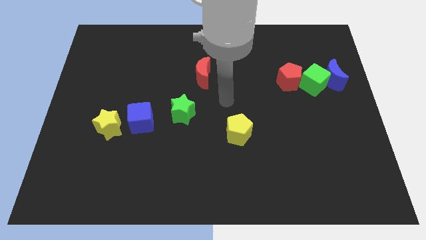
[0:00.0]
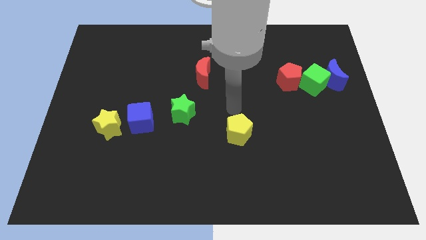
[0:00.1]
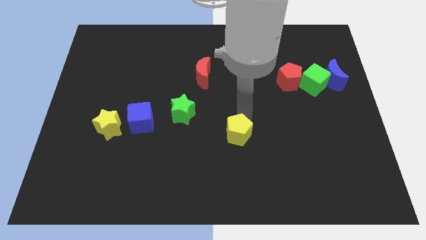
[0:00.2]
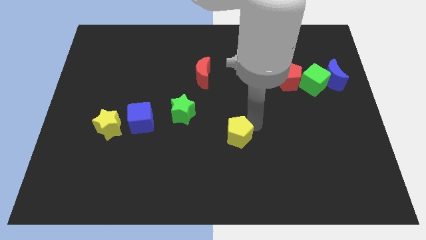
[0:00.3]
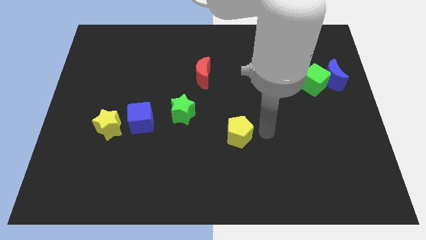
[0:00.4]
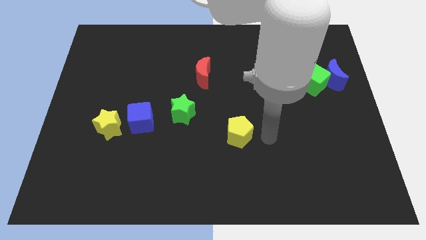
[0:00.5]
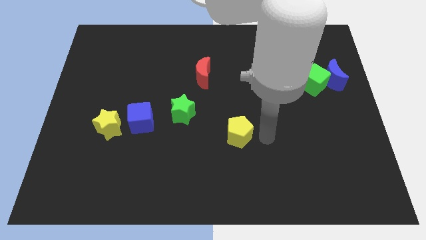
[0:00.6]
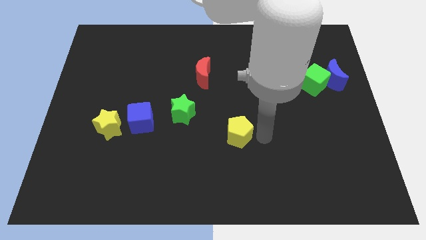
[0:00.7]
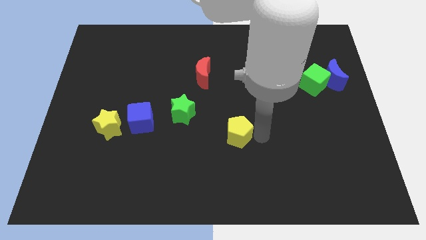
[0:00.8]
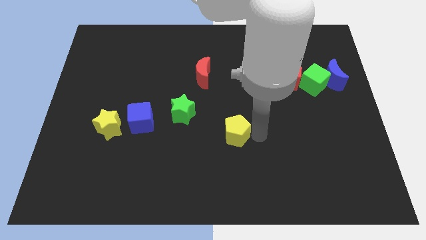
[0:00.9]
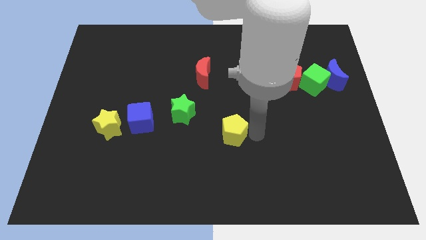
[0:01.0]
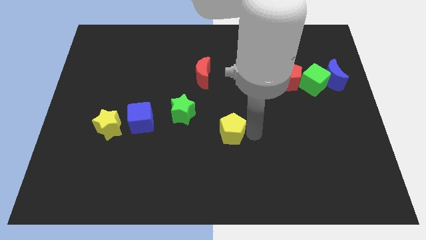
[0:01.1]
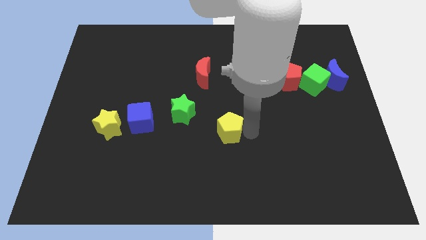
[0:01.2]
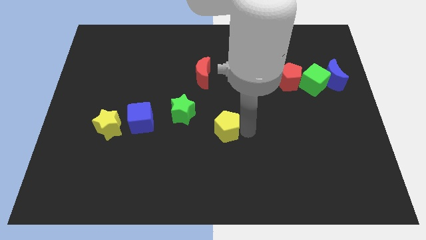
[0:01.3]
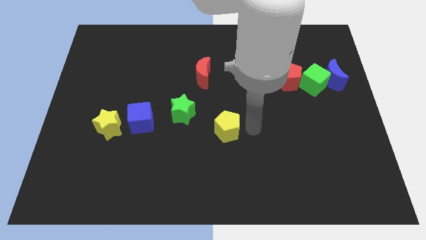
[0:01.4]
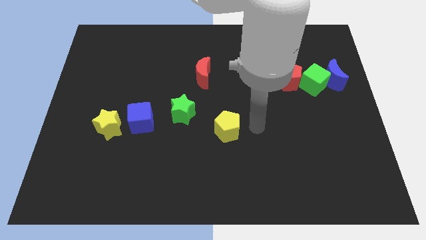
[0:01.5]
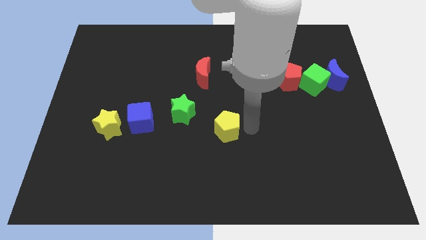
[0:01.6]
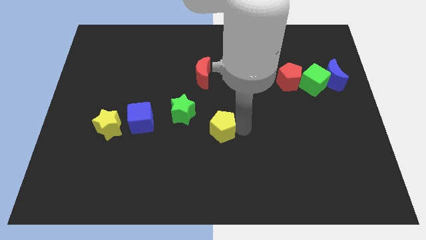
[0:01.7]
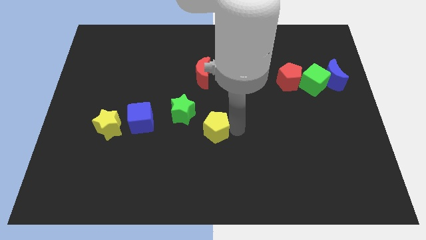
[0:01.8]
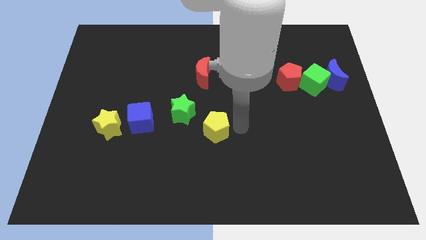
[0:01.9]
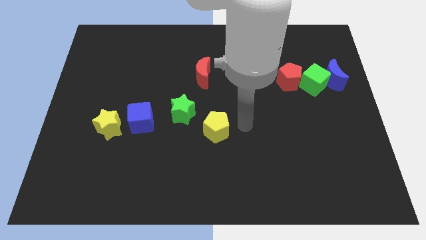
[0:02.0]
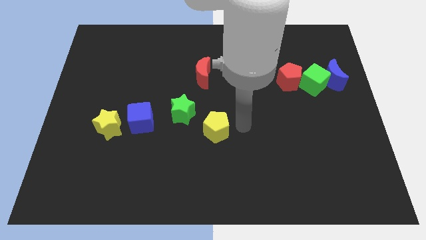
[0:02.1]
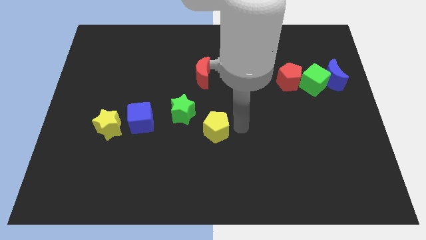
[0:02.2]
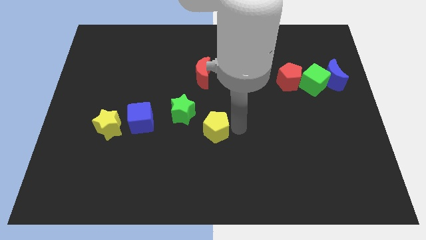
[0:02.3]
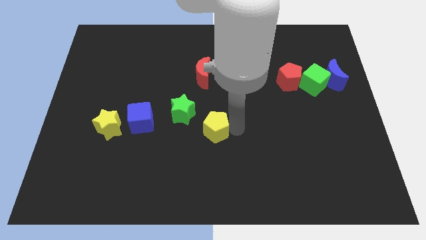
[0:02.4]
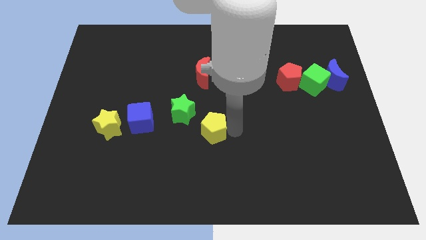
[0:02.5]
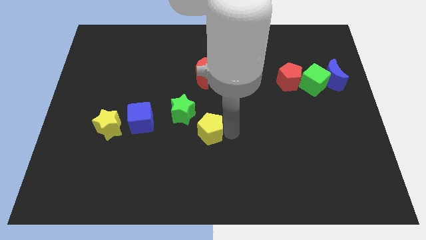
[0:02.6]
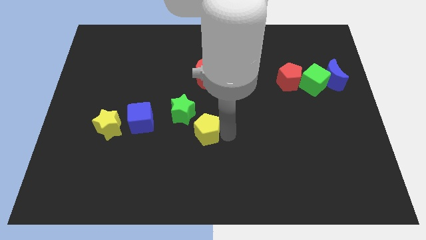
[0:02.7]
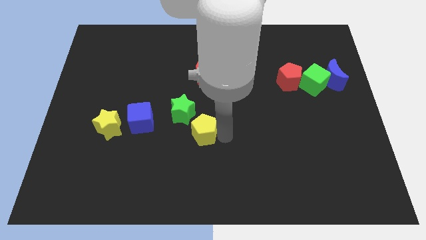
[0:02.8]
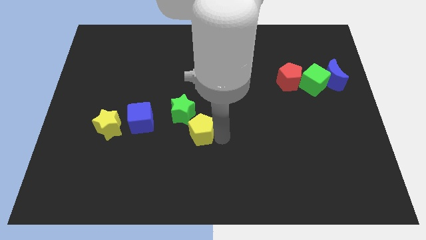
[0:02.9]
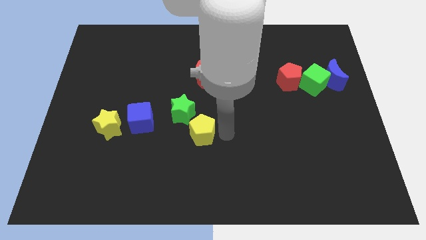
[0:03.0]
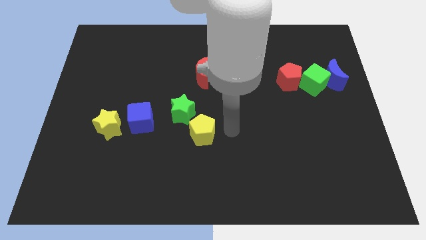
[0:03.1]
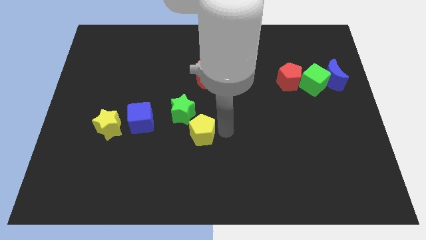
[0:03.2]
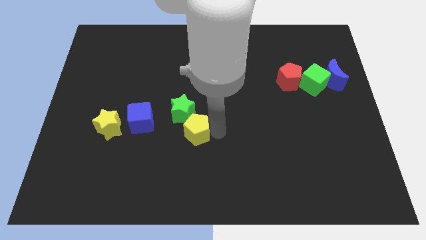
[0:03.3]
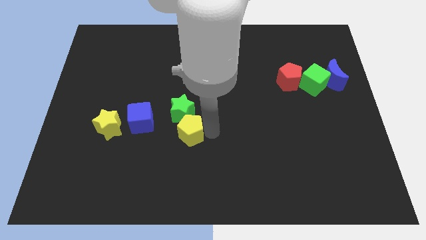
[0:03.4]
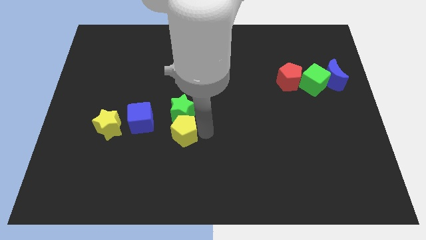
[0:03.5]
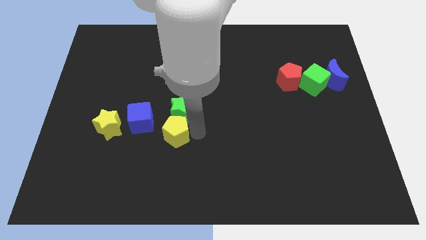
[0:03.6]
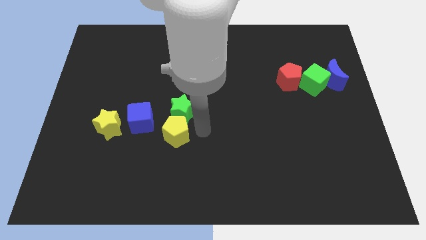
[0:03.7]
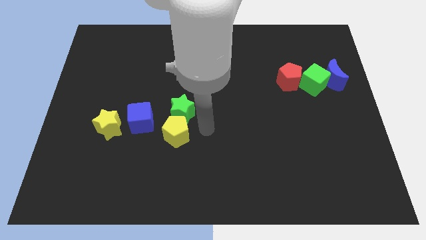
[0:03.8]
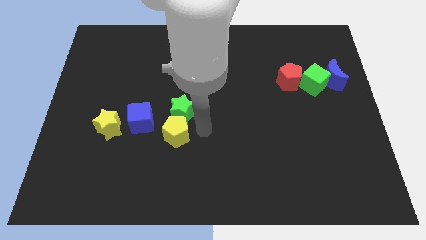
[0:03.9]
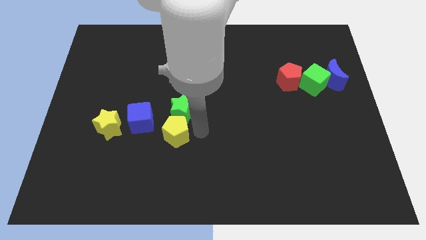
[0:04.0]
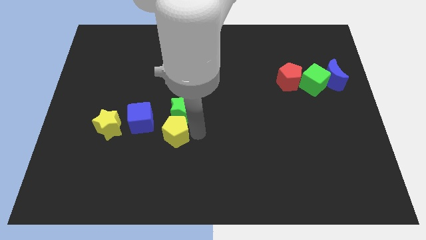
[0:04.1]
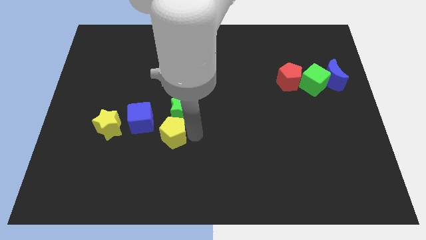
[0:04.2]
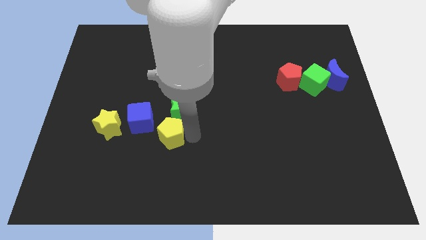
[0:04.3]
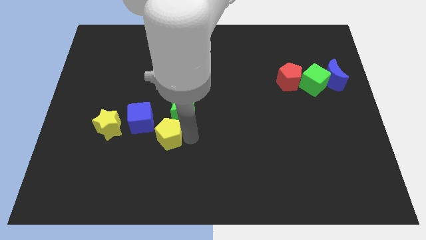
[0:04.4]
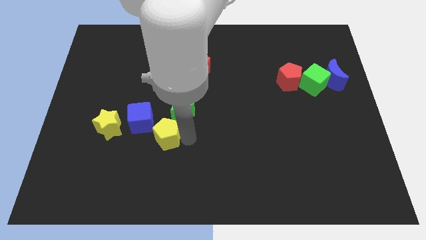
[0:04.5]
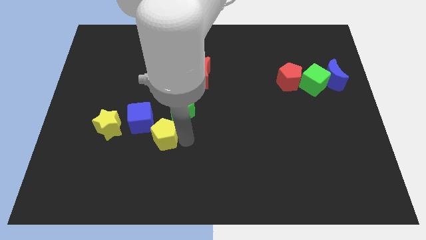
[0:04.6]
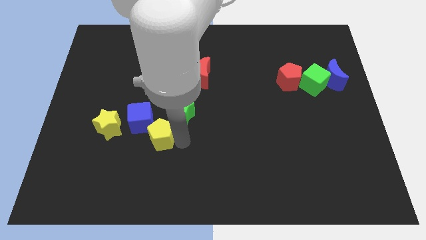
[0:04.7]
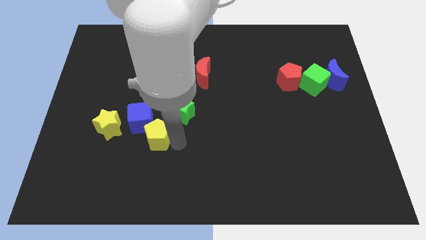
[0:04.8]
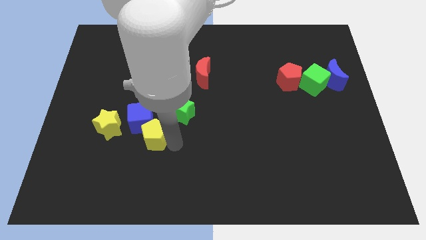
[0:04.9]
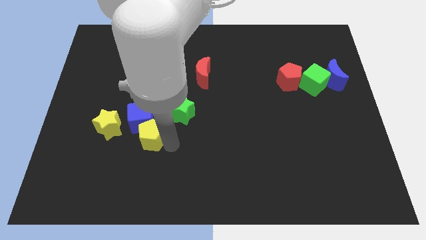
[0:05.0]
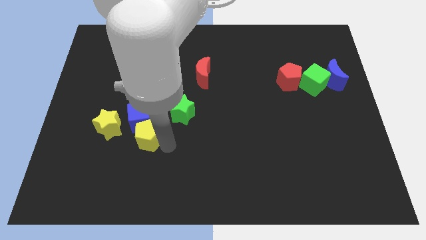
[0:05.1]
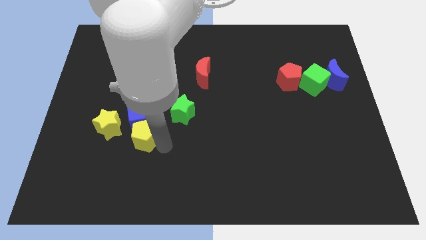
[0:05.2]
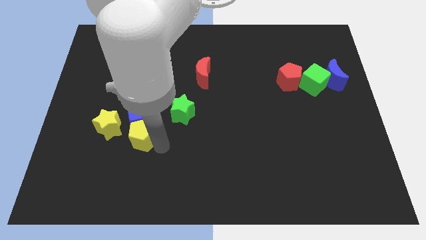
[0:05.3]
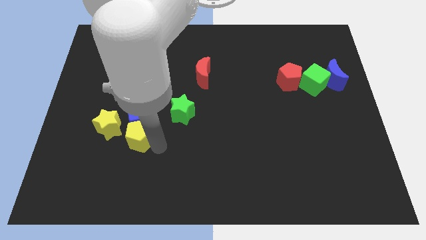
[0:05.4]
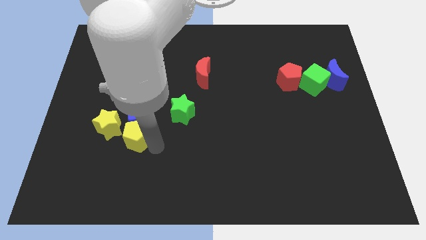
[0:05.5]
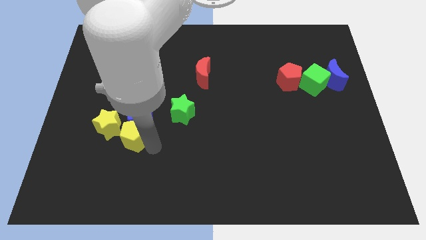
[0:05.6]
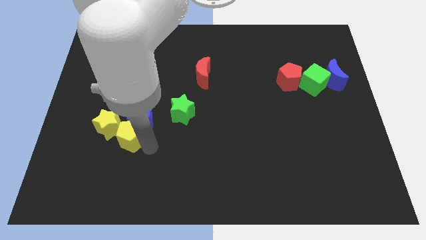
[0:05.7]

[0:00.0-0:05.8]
push the yellow pentagon to the yellow star

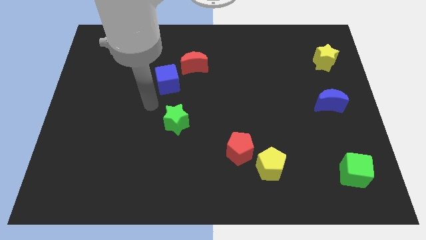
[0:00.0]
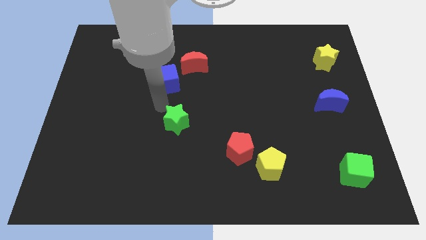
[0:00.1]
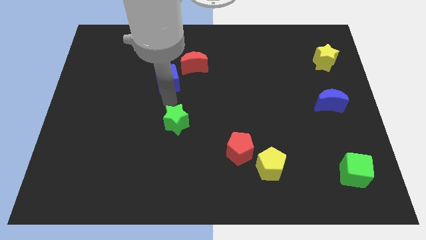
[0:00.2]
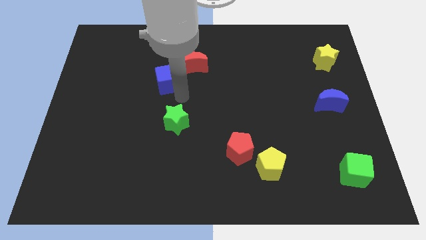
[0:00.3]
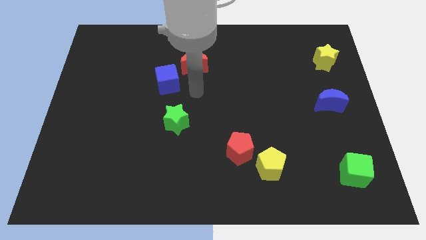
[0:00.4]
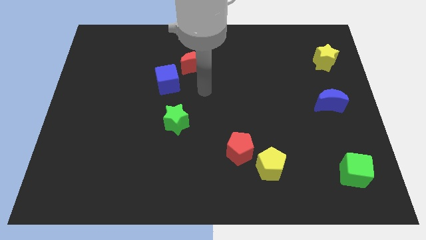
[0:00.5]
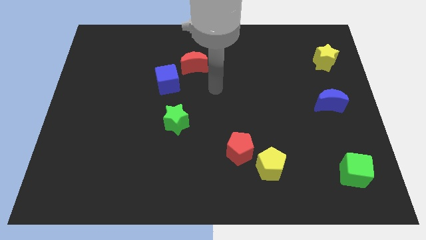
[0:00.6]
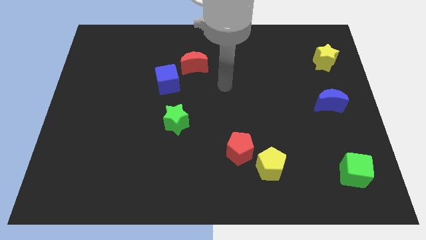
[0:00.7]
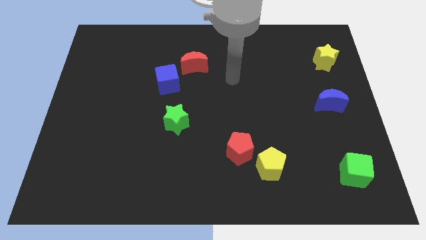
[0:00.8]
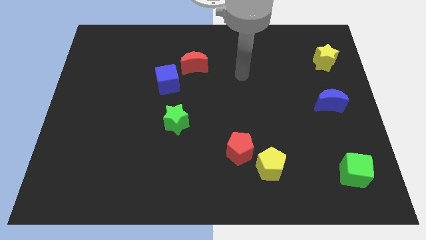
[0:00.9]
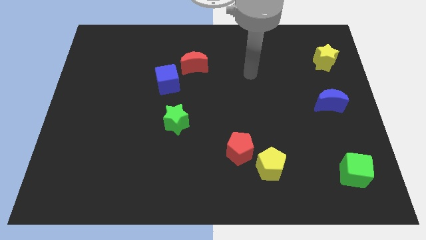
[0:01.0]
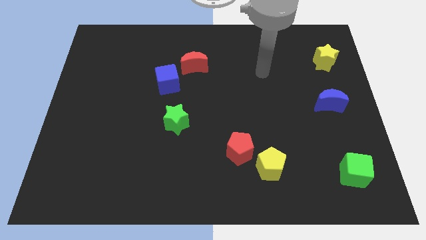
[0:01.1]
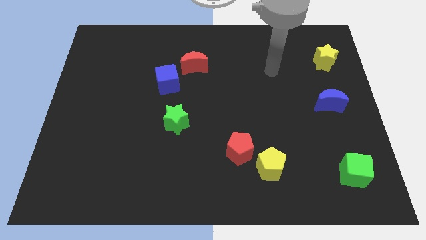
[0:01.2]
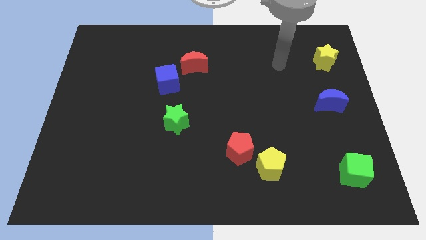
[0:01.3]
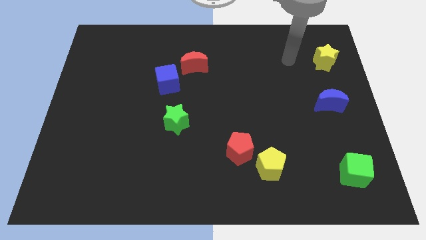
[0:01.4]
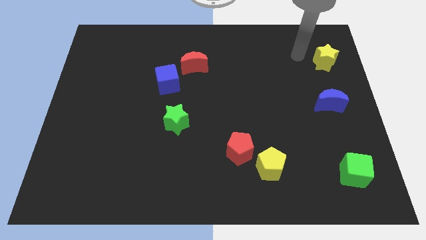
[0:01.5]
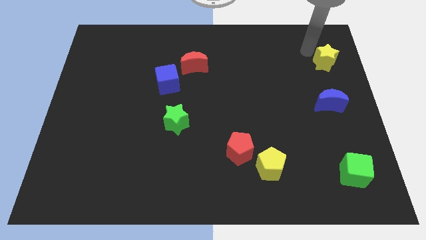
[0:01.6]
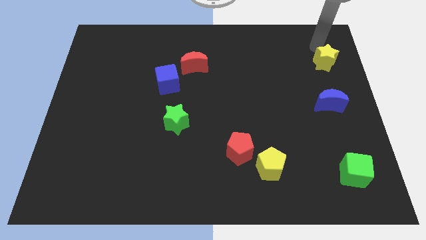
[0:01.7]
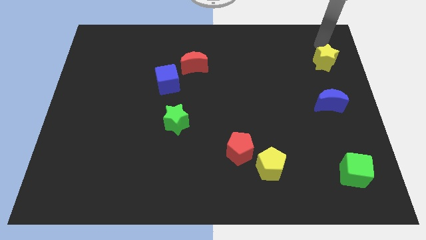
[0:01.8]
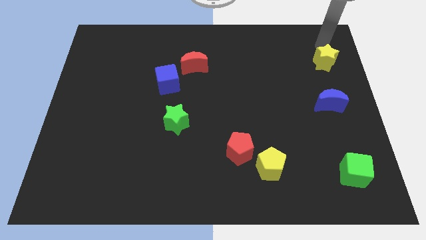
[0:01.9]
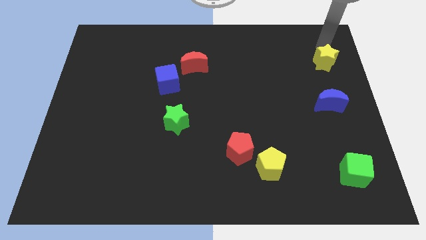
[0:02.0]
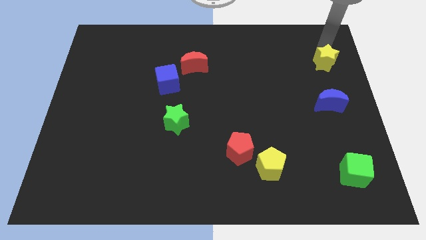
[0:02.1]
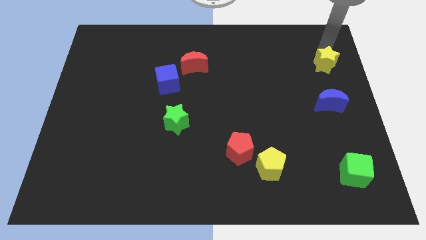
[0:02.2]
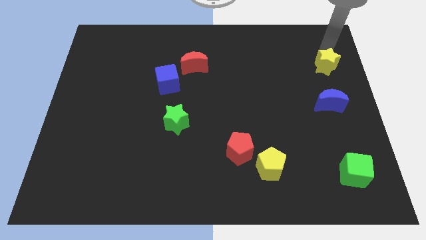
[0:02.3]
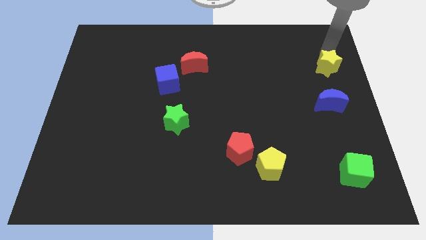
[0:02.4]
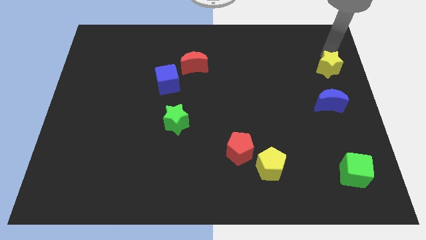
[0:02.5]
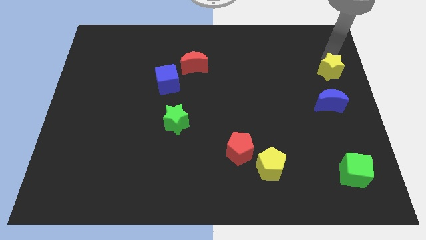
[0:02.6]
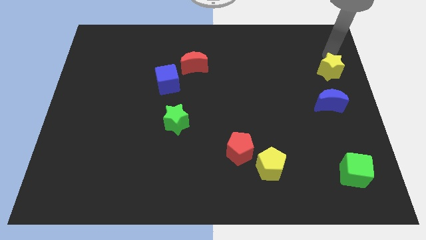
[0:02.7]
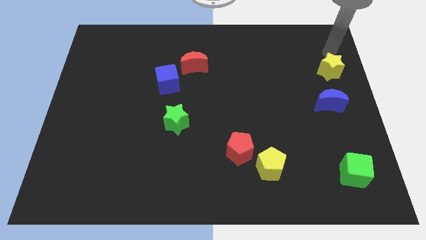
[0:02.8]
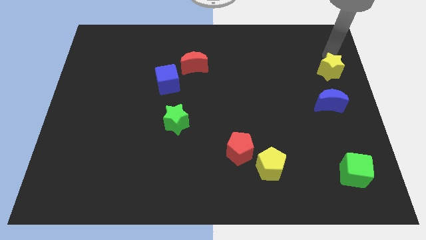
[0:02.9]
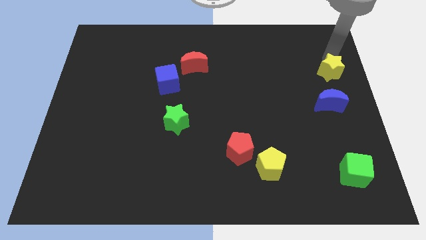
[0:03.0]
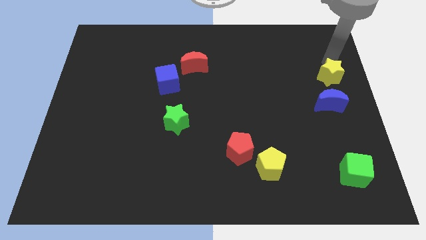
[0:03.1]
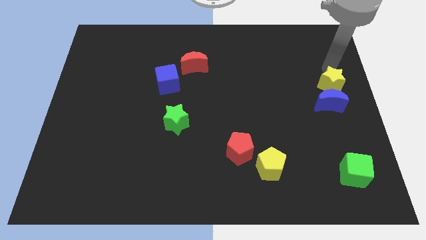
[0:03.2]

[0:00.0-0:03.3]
move the yellow star towards the blue moon
